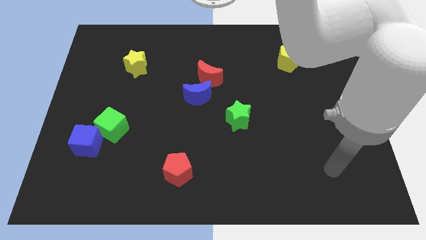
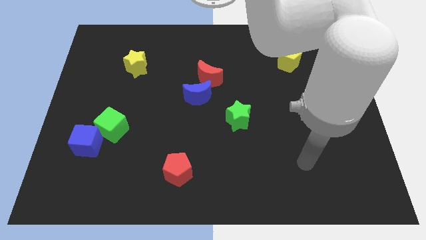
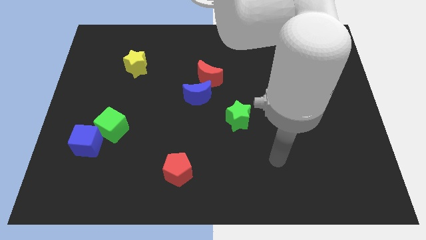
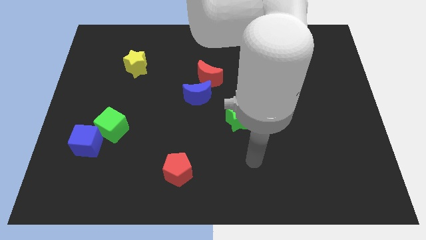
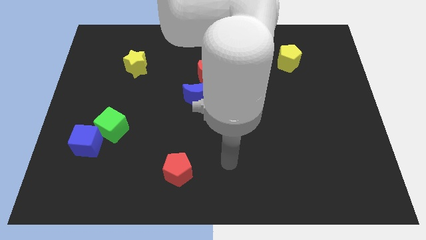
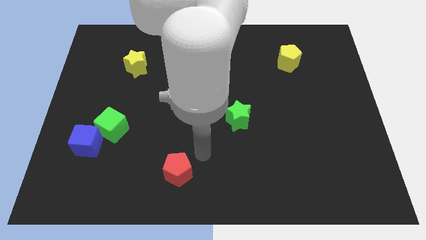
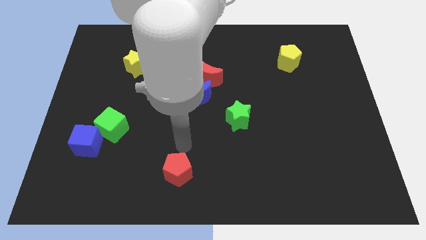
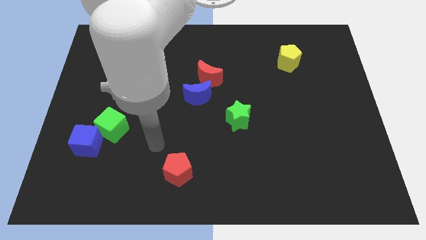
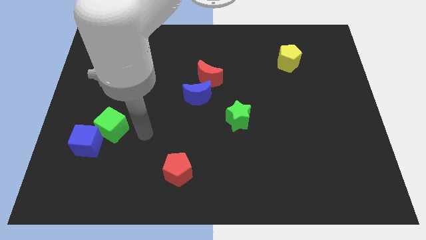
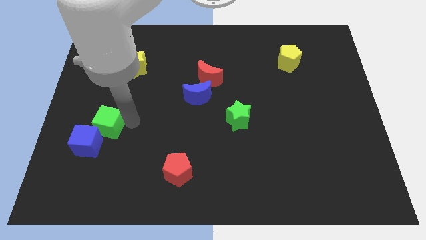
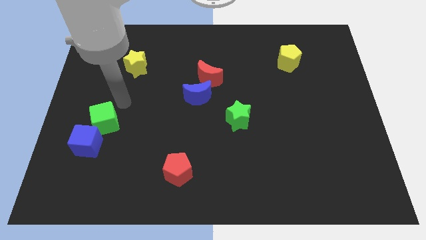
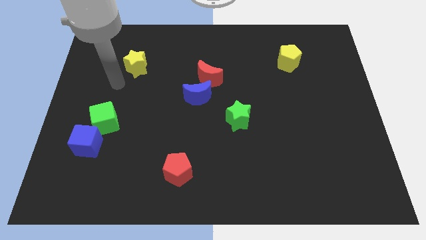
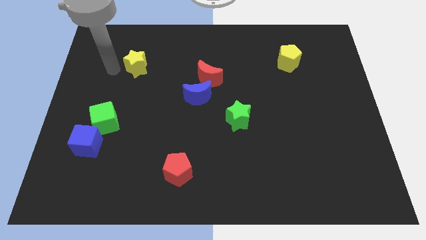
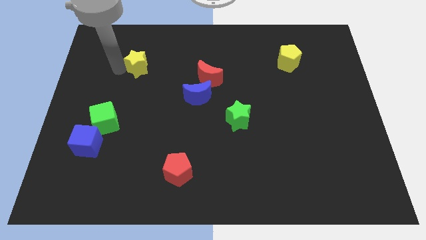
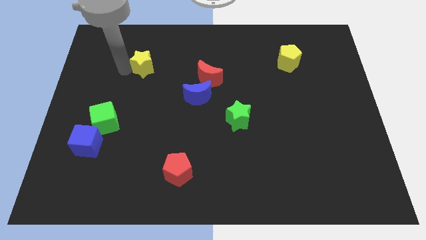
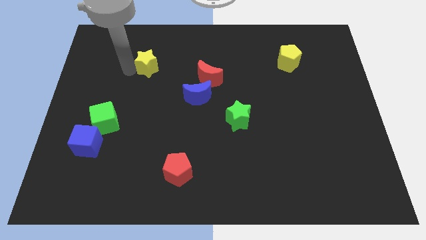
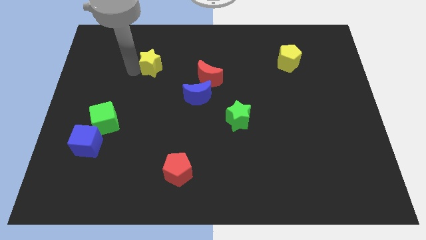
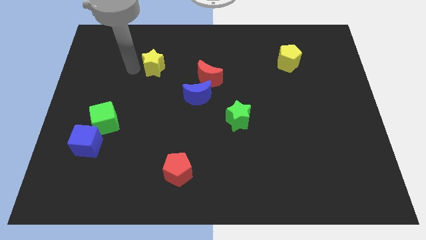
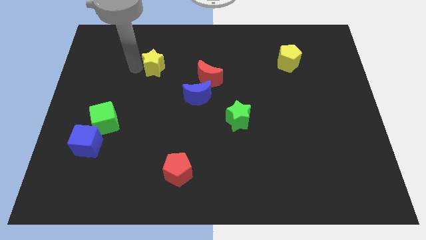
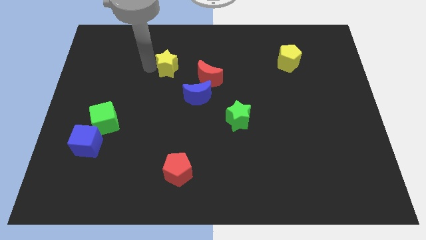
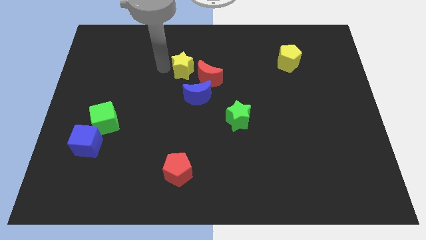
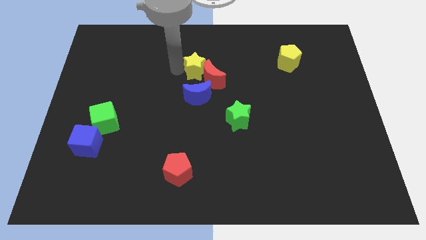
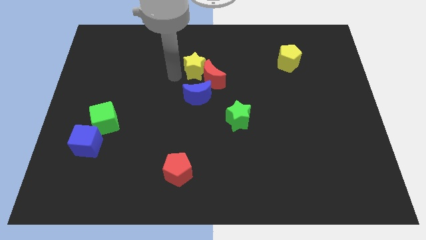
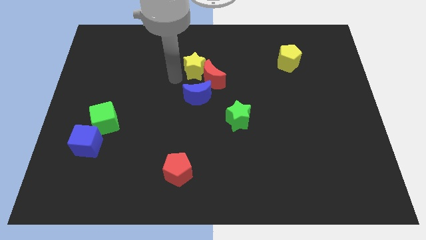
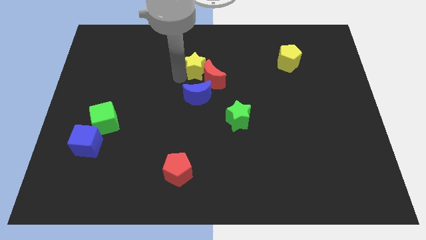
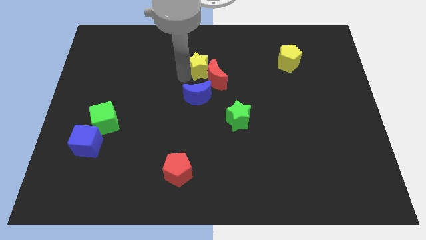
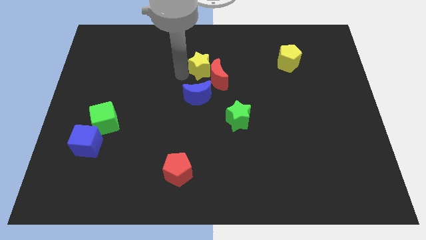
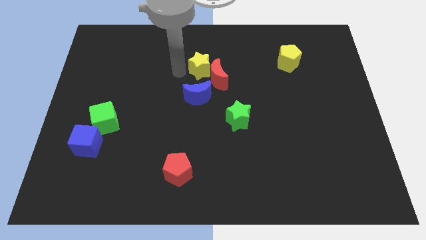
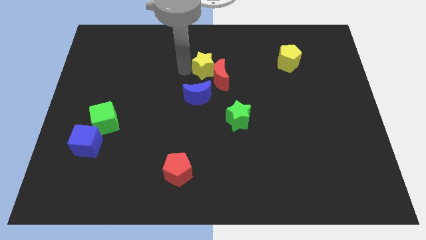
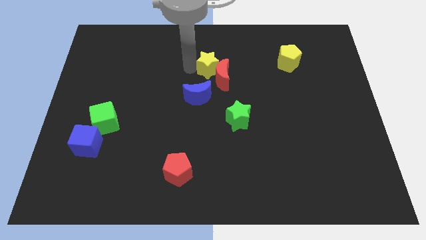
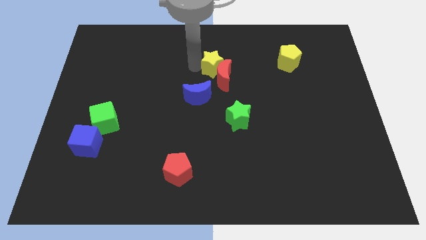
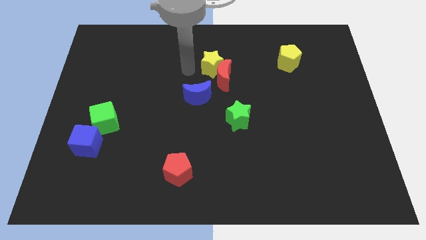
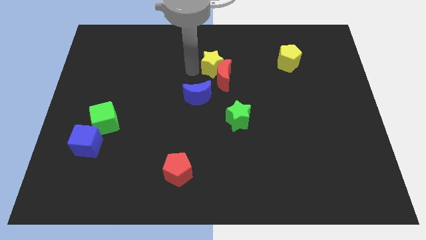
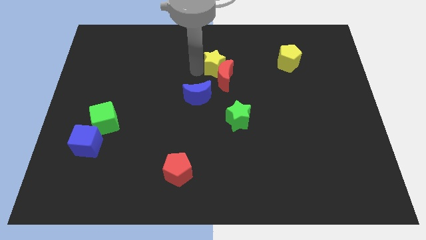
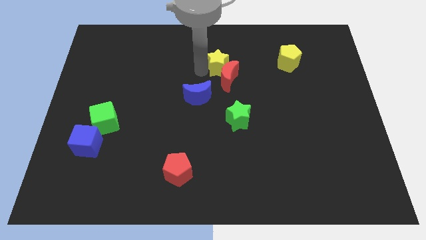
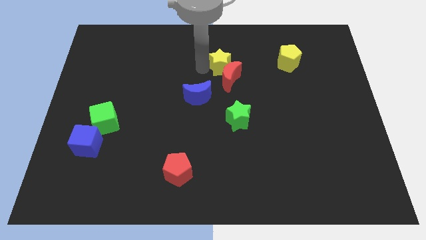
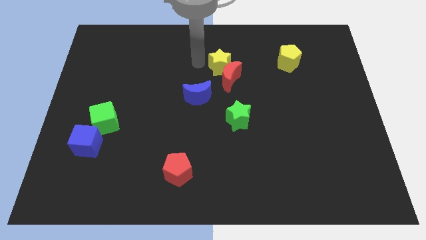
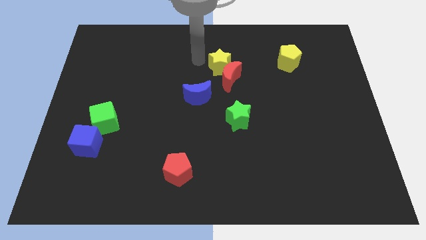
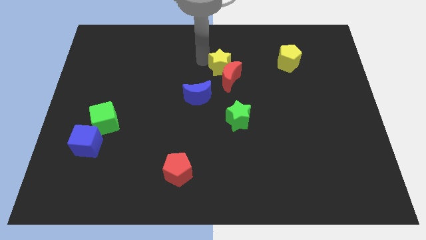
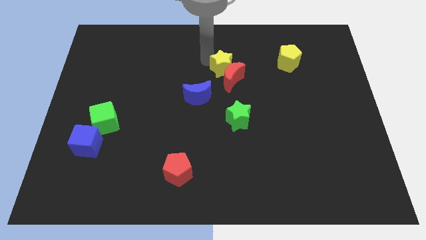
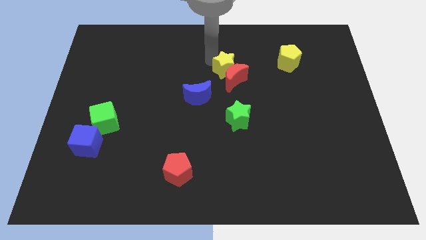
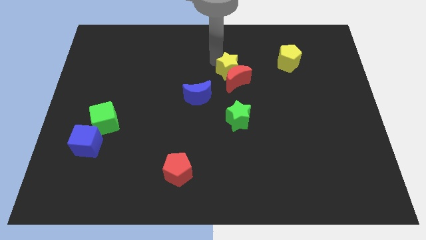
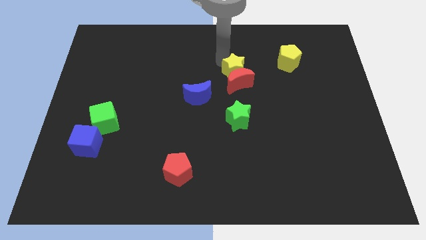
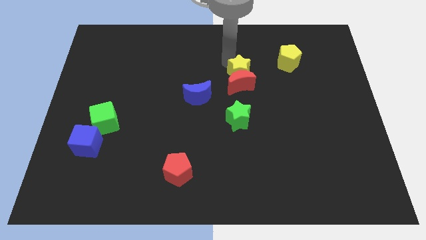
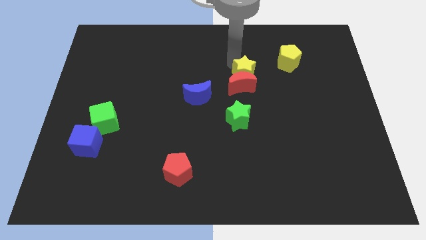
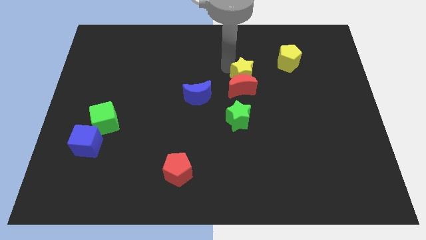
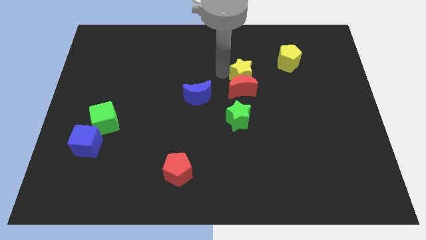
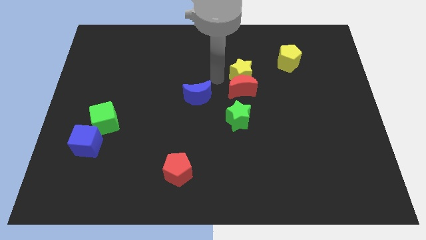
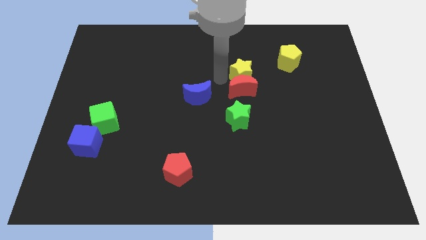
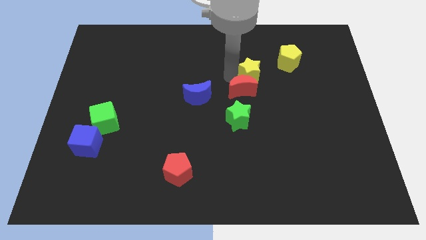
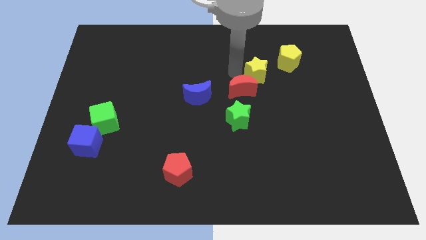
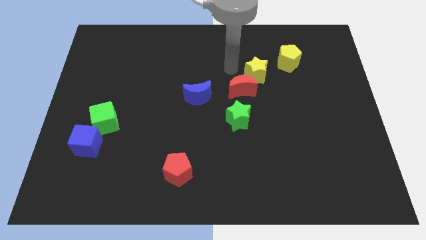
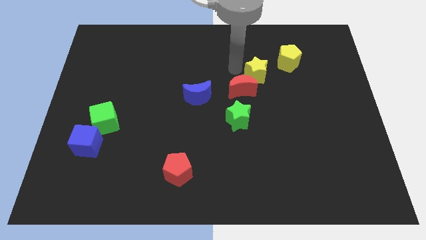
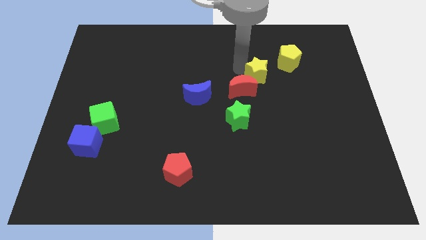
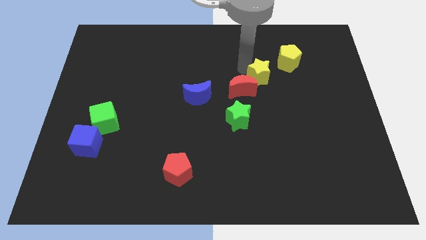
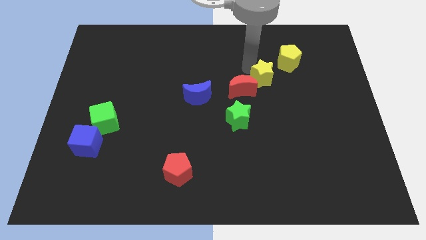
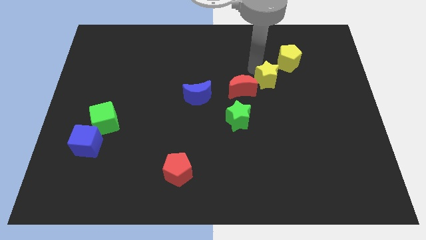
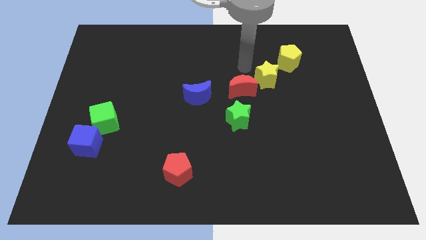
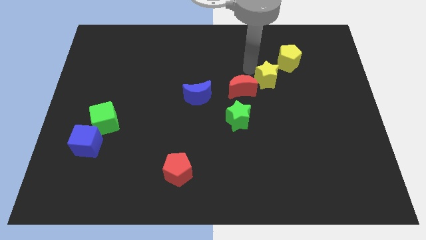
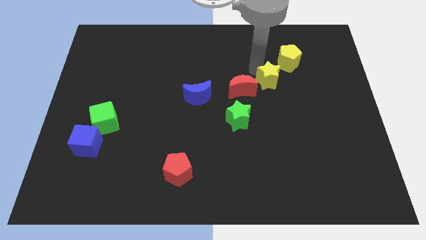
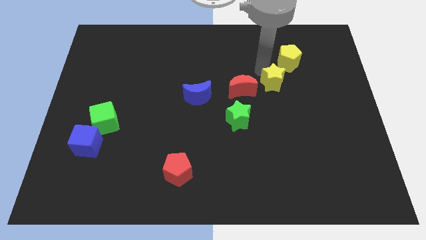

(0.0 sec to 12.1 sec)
push the yellow star to the bottom of the yellow pentagon

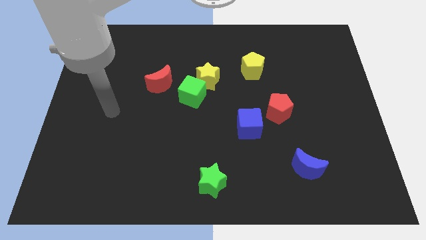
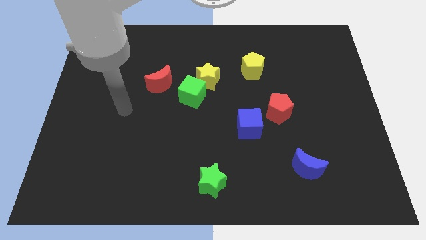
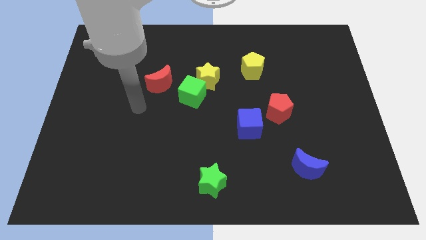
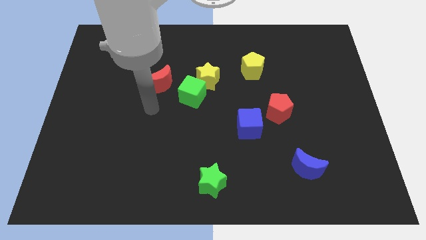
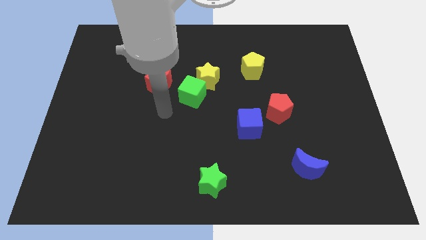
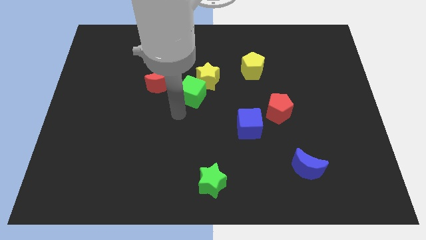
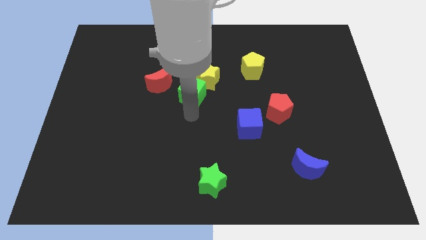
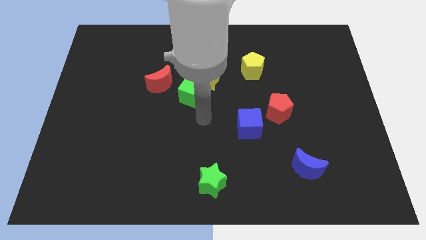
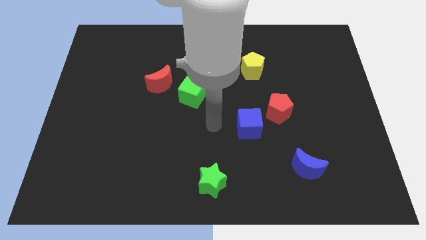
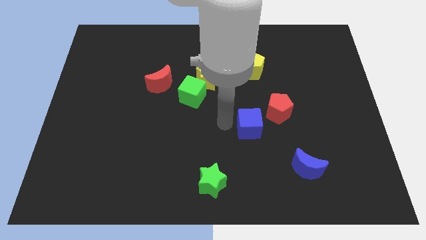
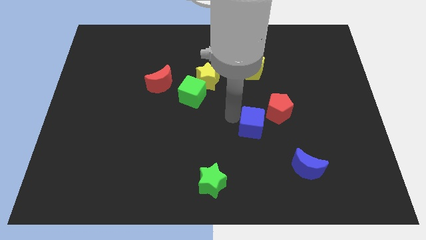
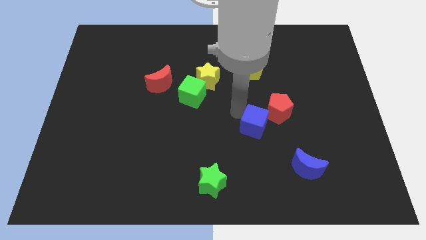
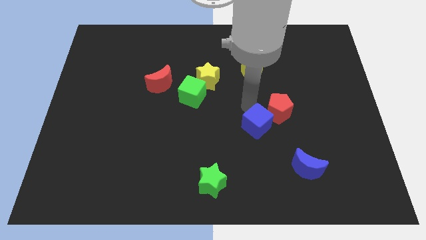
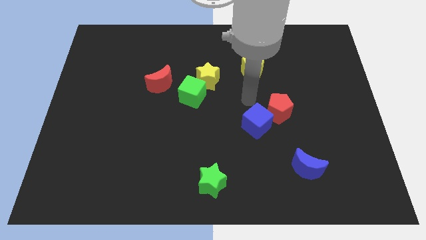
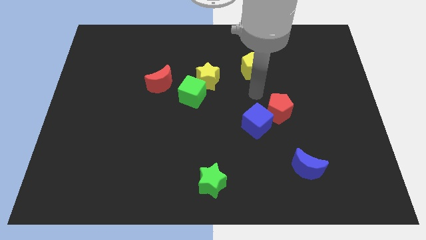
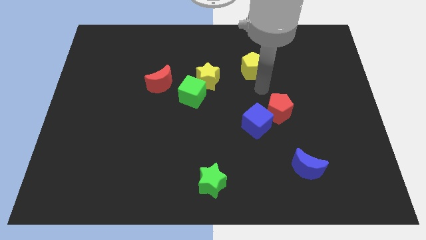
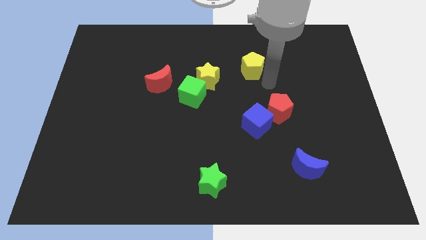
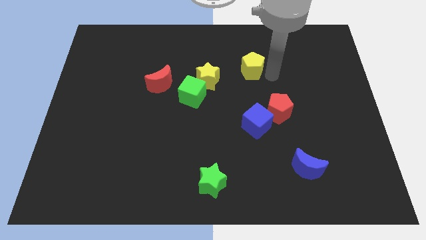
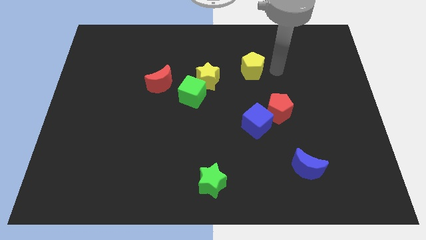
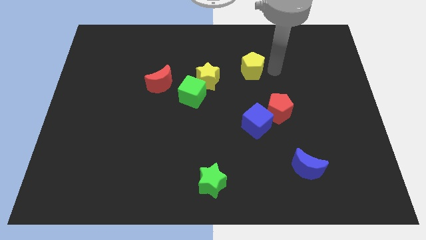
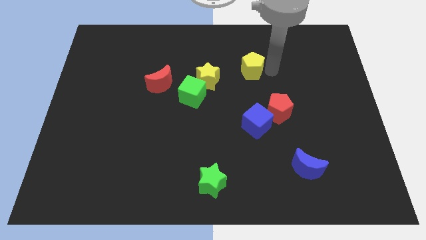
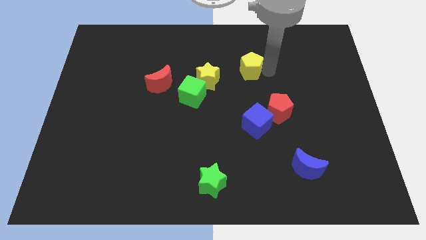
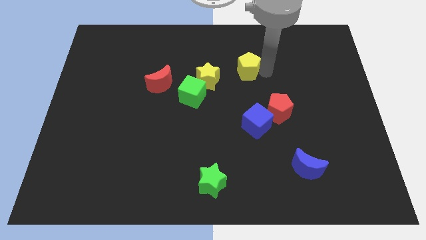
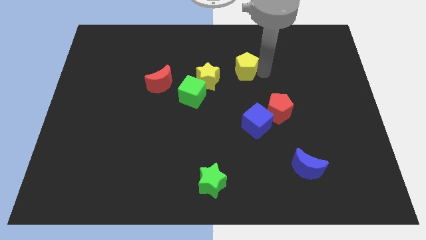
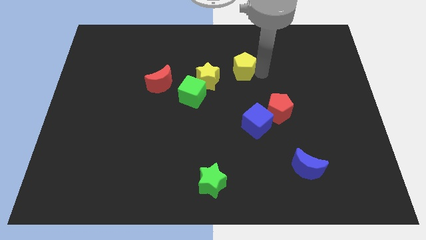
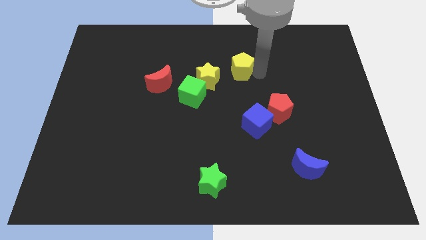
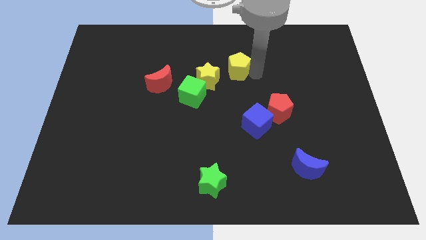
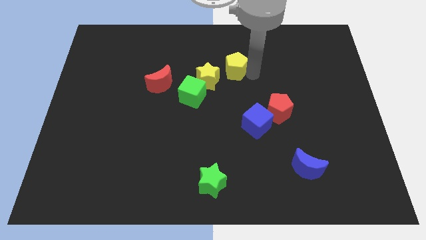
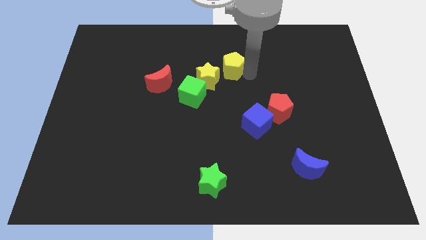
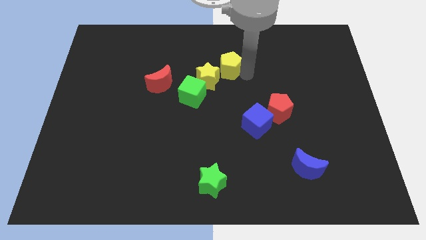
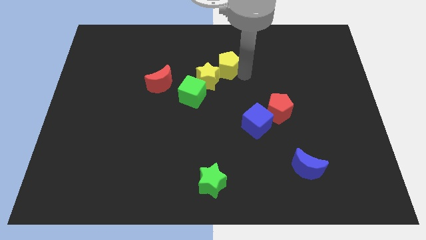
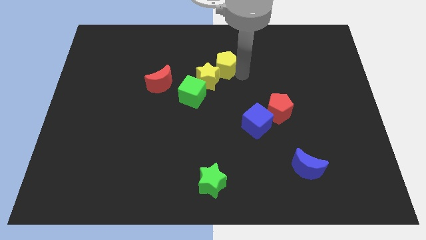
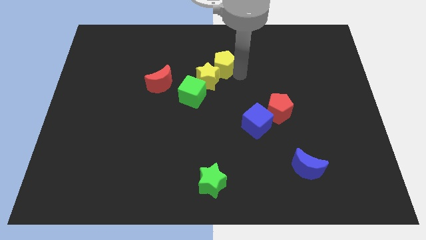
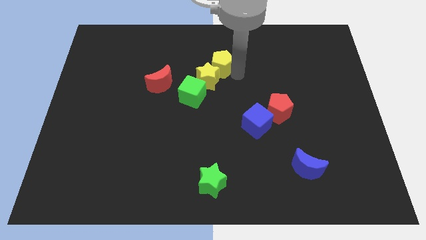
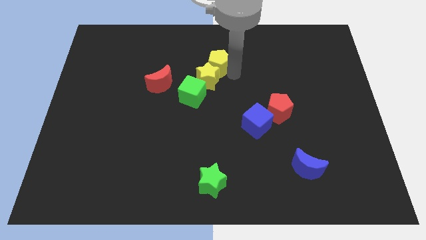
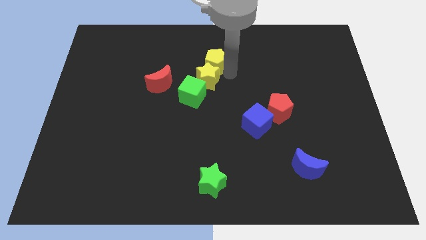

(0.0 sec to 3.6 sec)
push the yellow pentagon diagonally up and to the left of the yellow star
